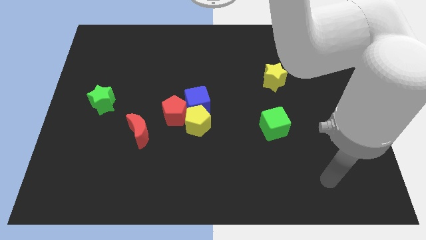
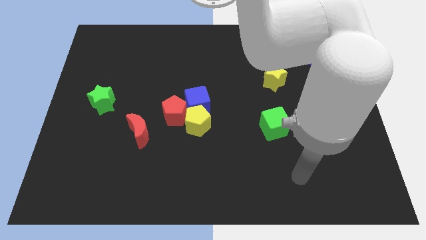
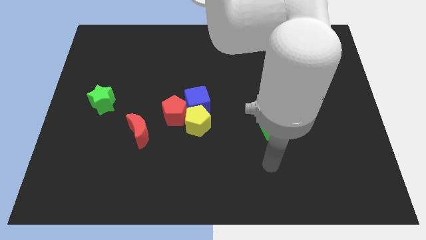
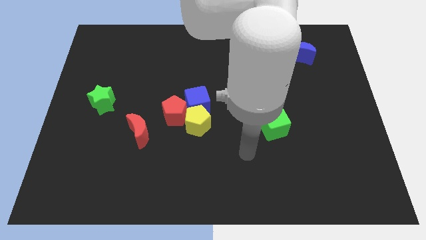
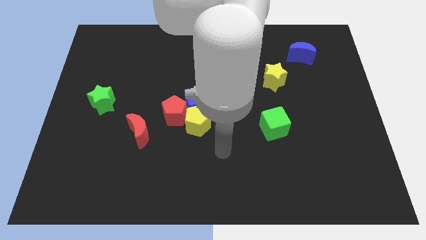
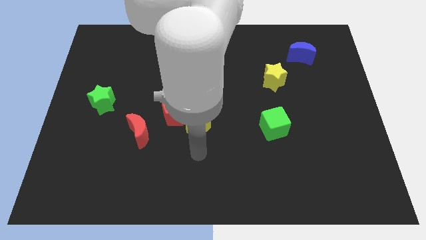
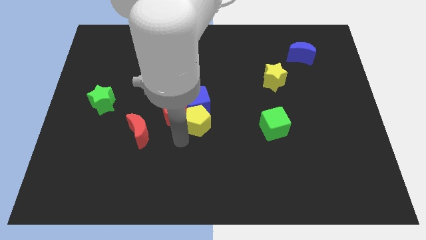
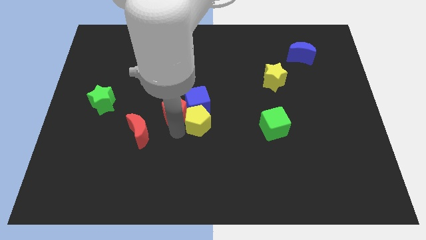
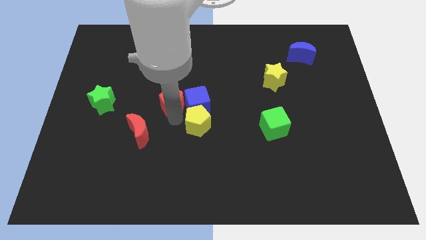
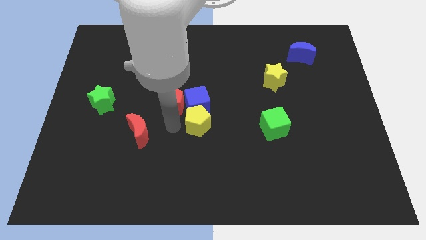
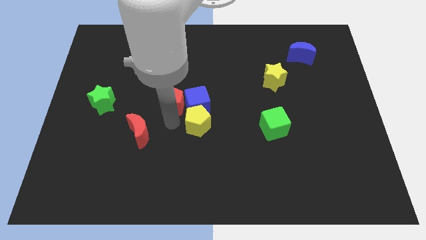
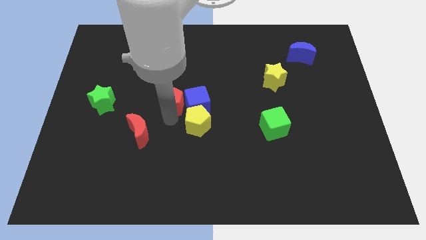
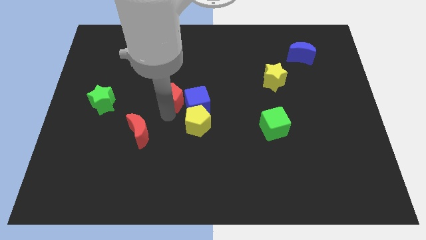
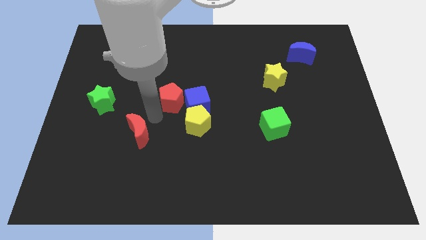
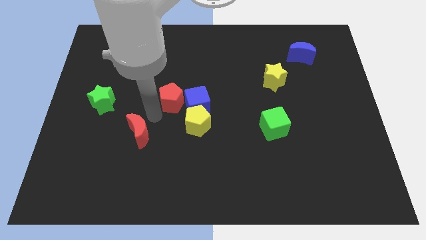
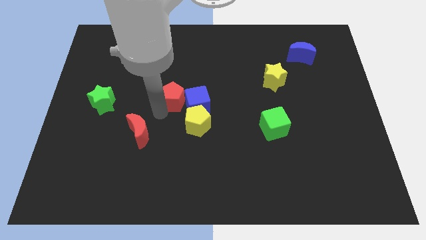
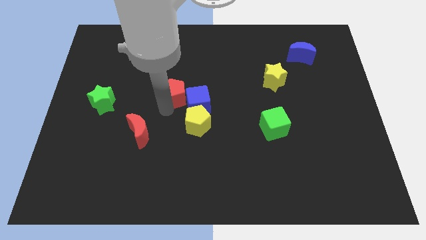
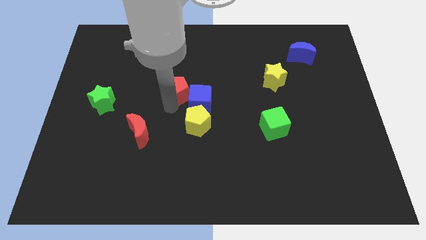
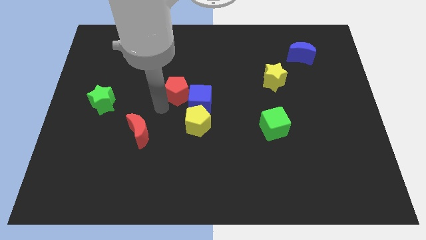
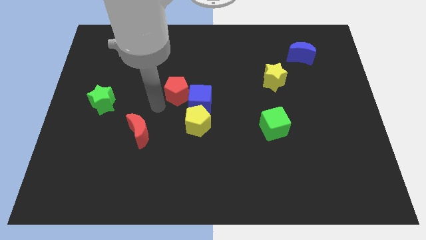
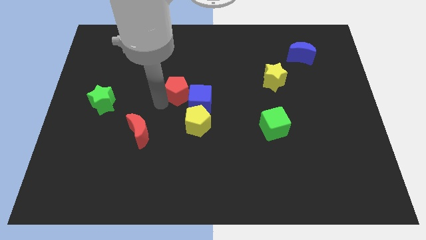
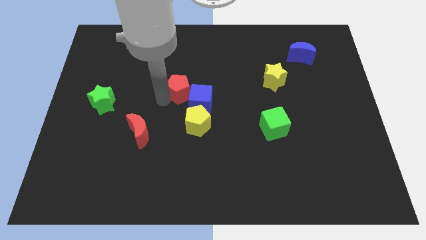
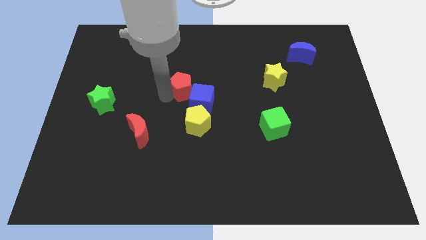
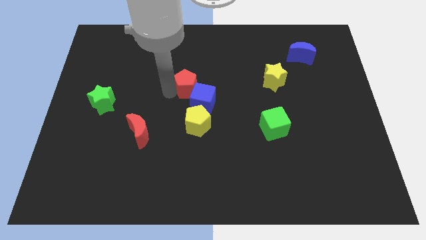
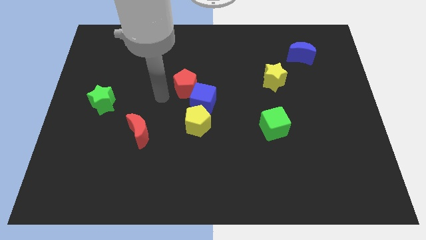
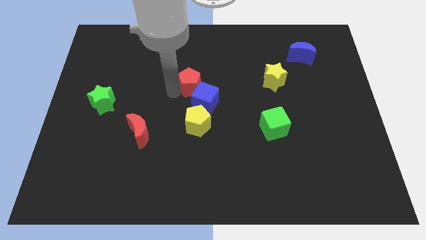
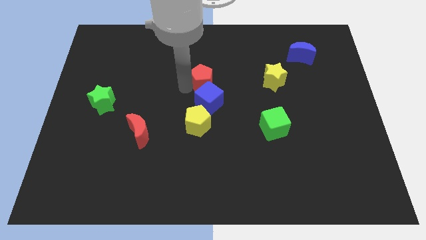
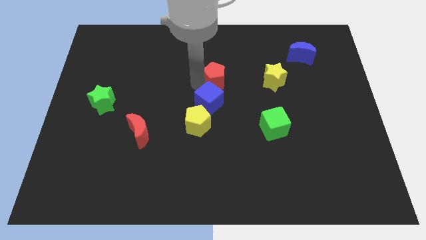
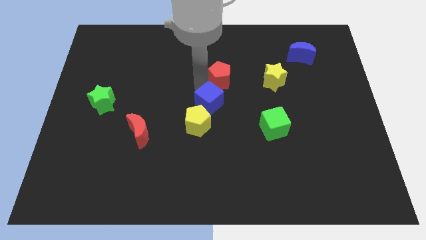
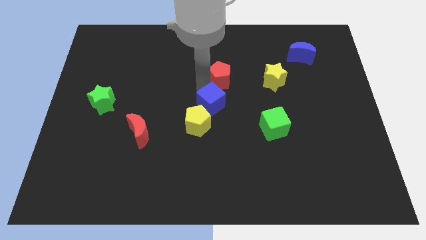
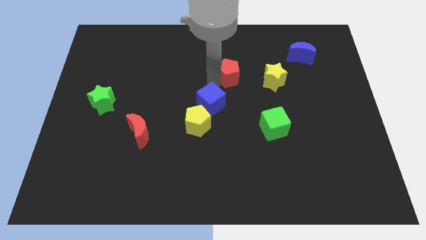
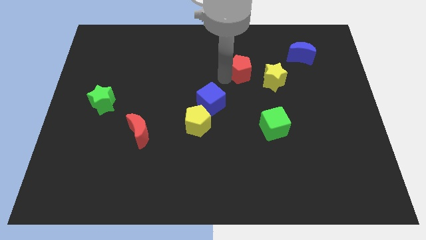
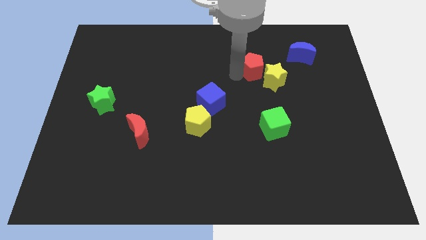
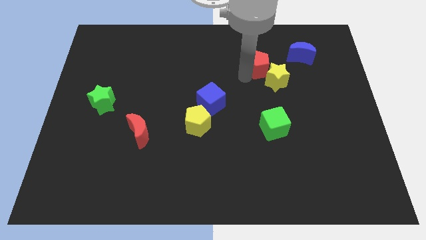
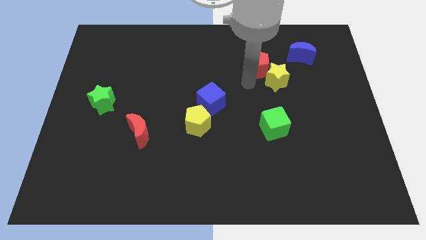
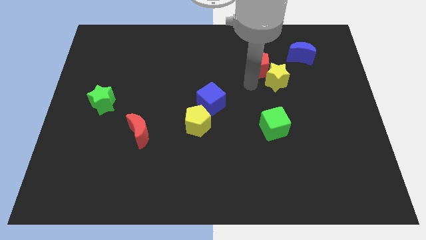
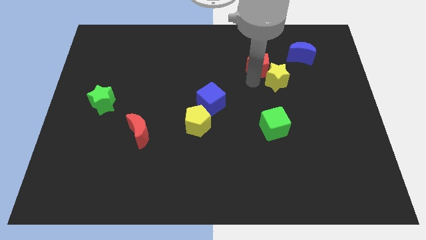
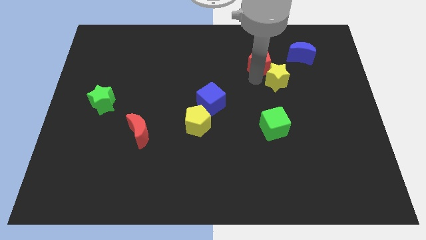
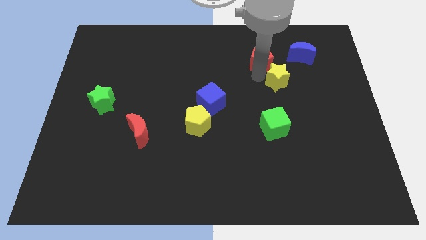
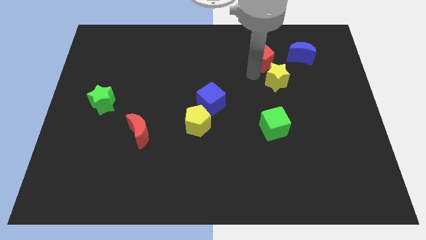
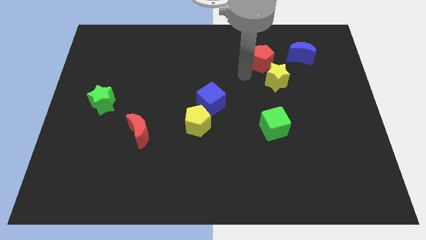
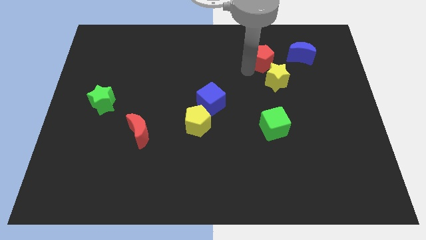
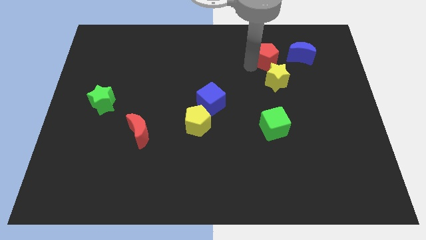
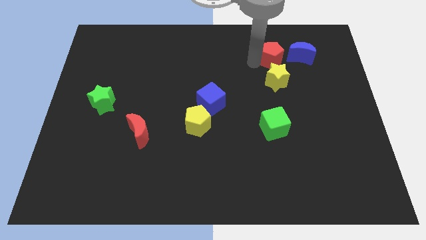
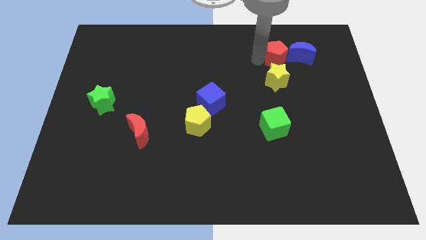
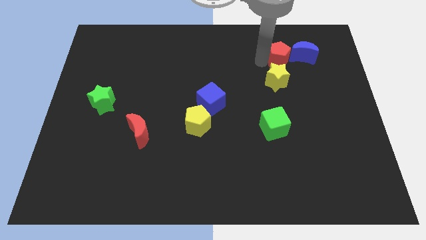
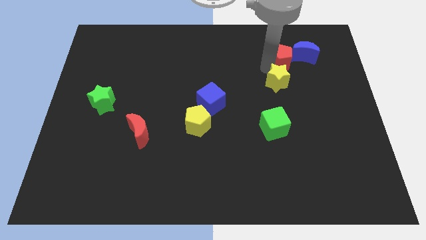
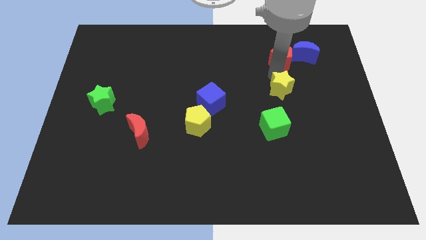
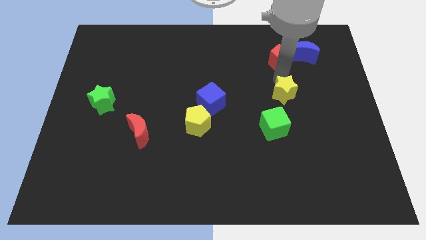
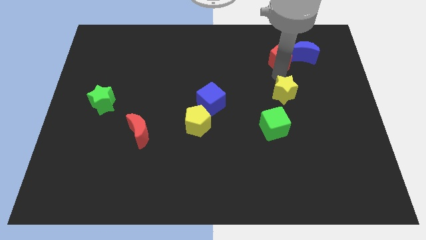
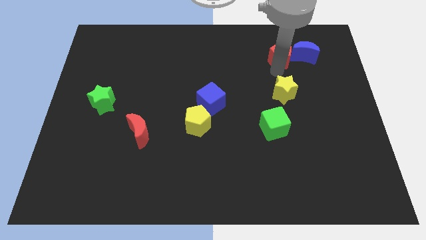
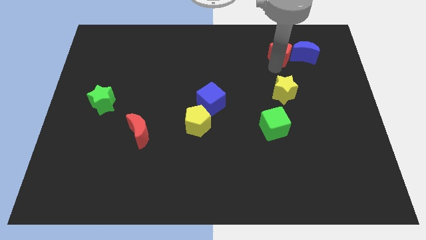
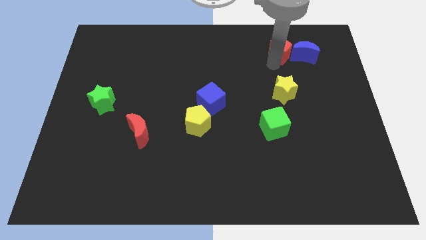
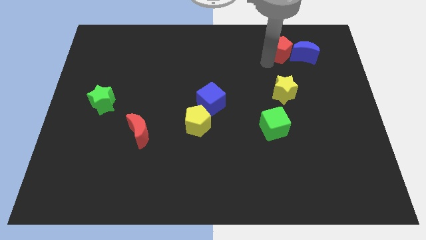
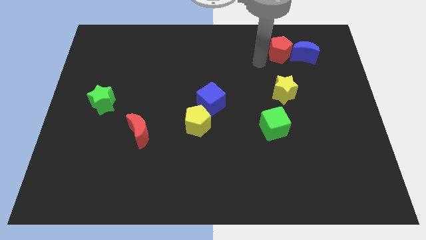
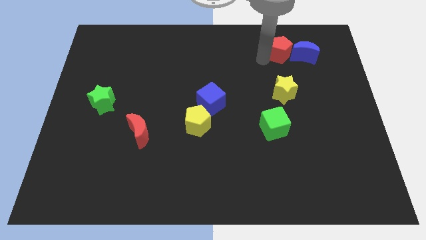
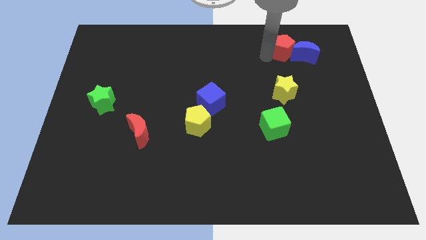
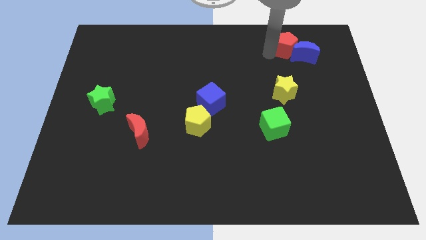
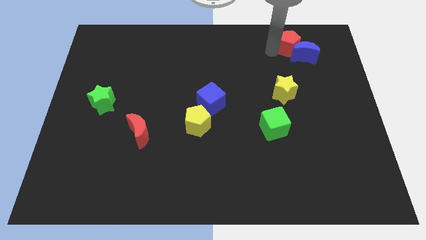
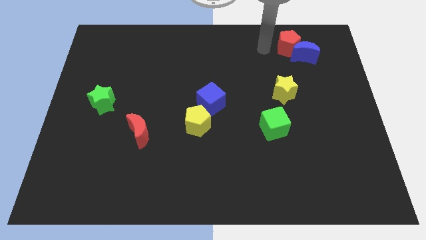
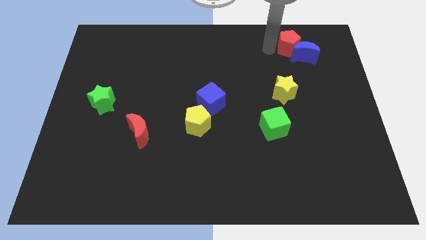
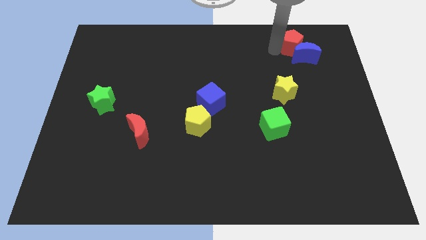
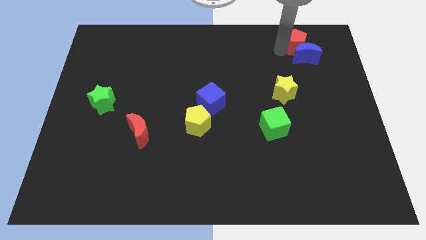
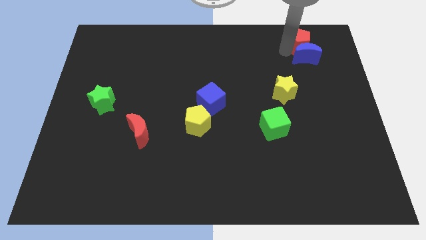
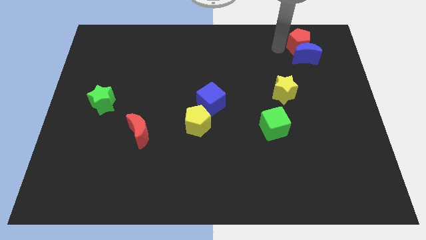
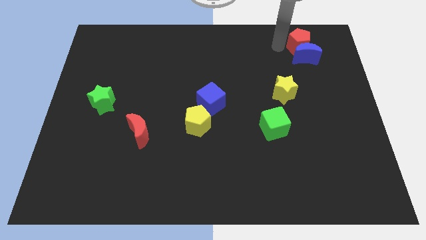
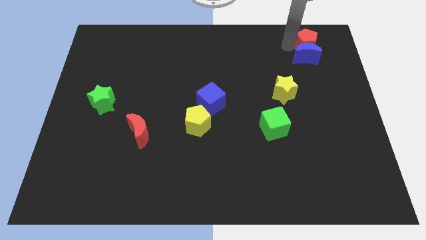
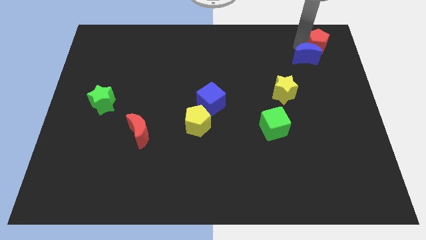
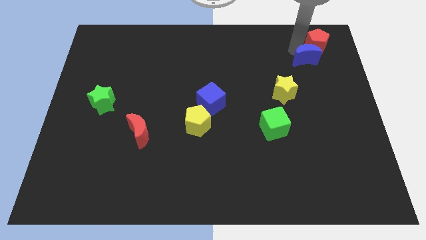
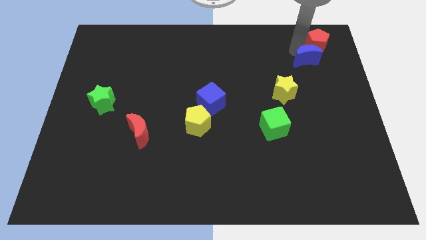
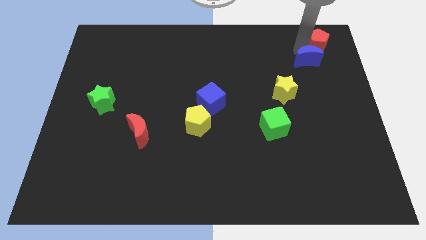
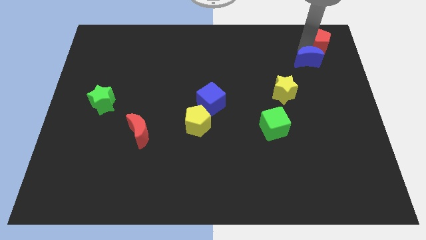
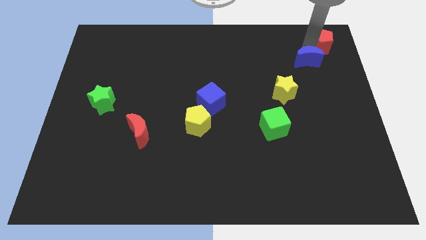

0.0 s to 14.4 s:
put the red pentagon to the top right of the board
